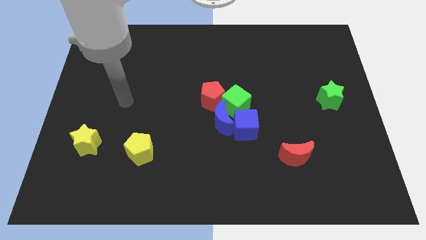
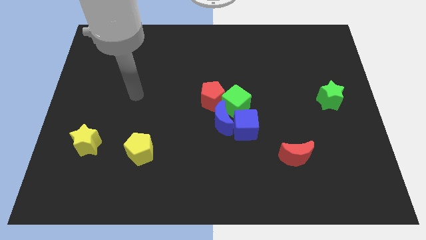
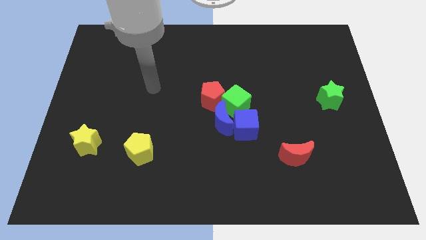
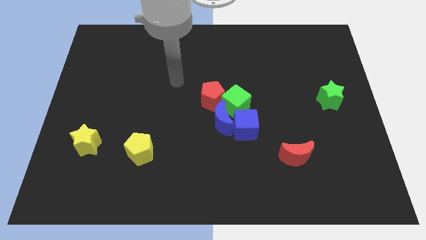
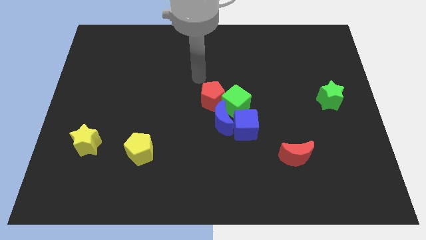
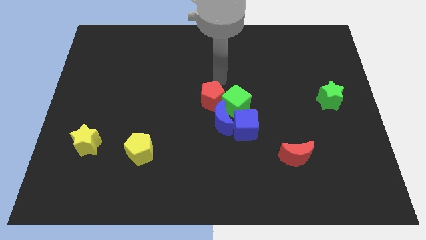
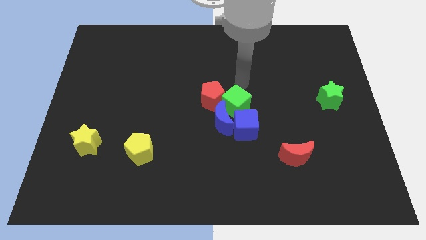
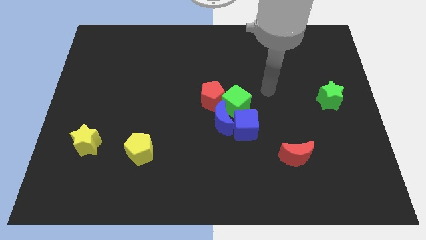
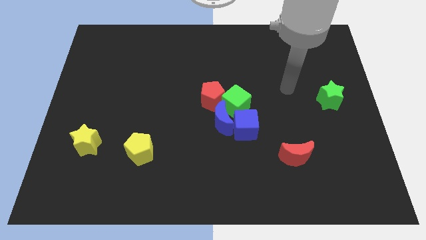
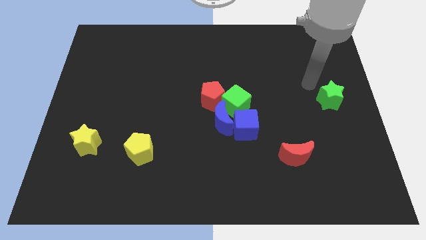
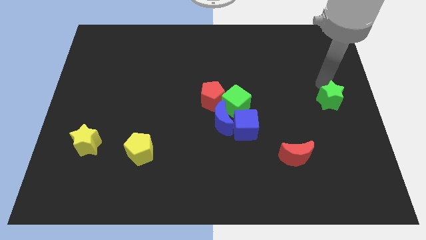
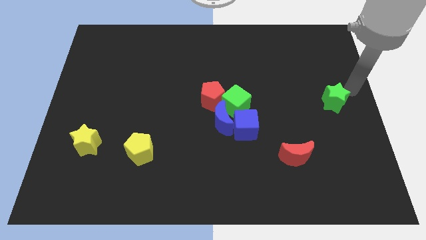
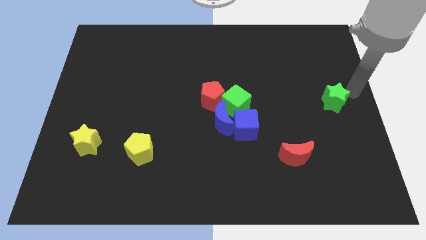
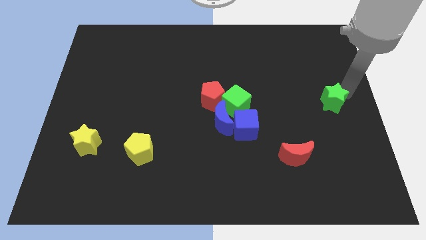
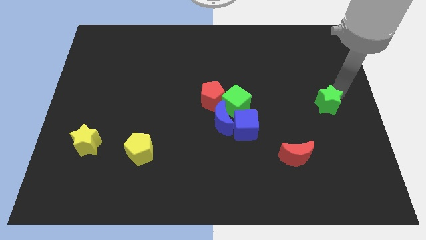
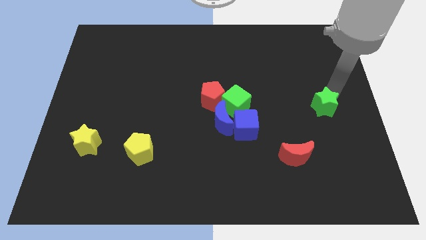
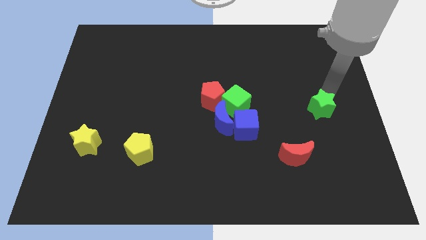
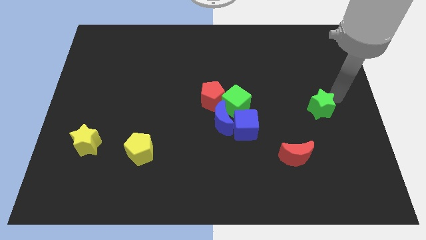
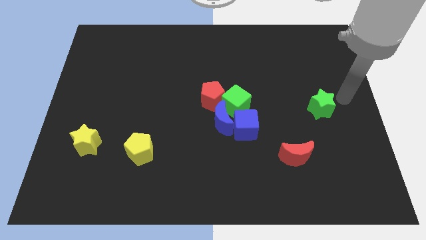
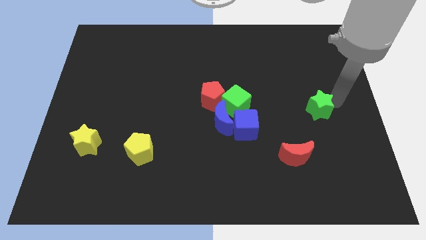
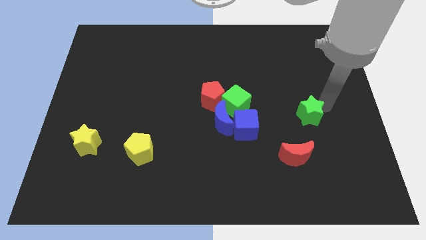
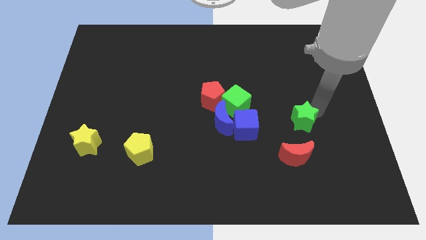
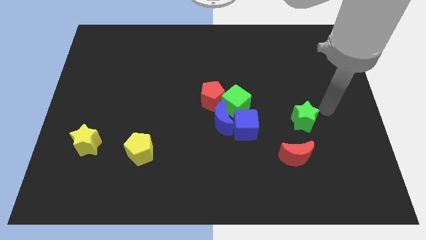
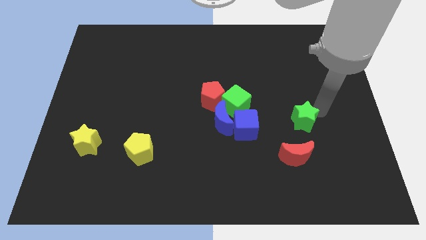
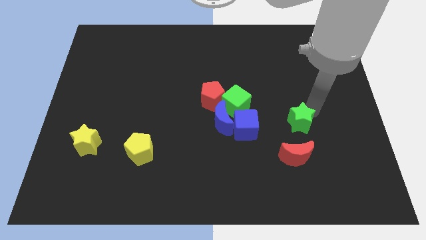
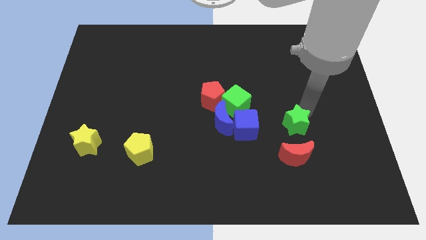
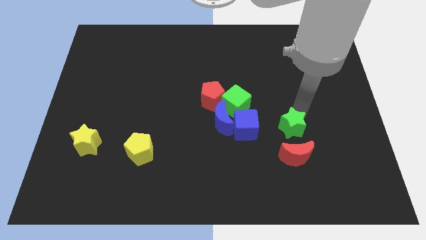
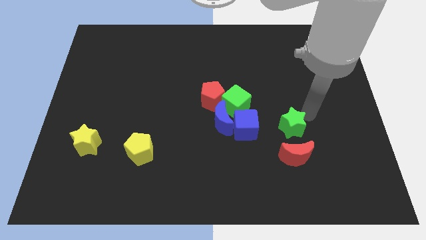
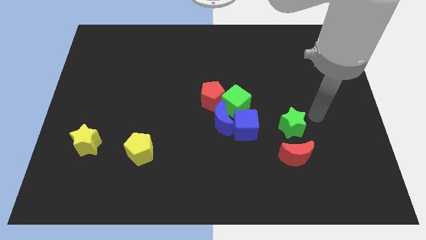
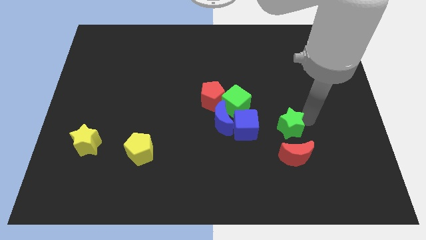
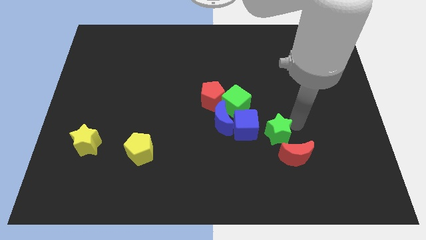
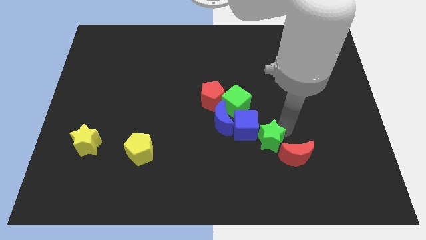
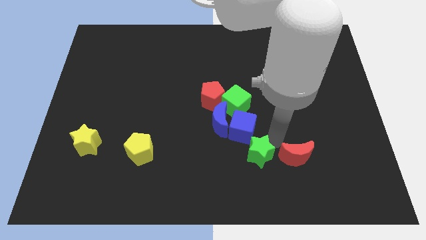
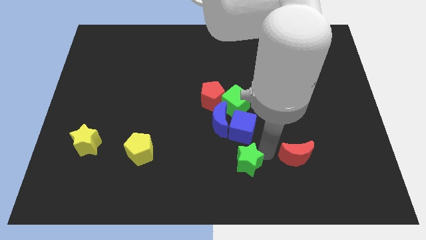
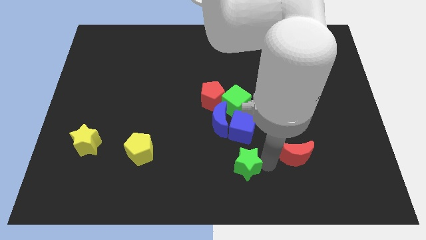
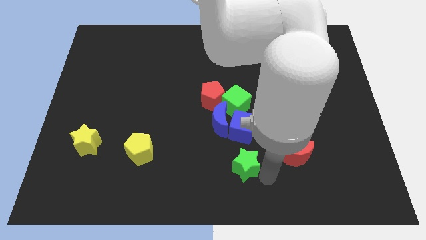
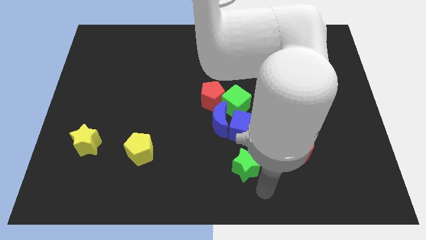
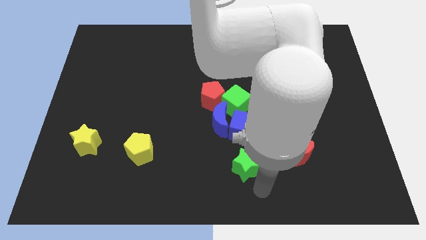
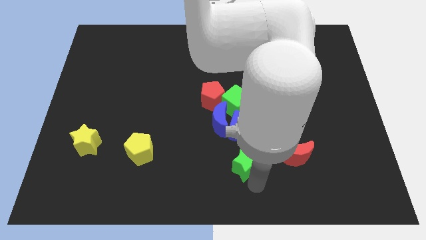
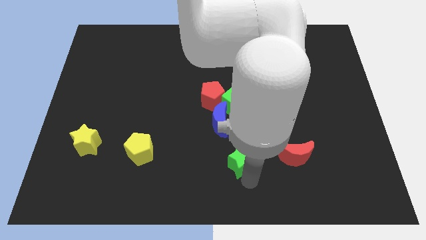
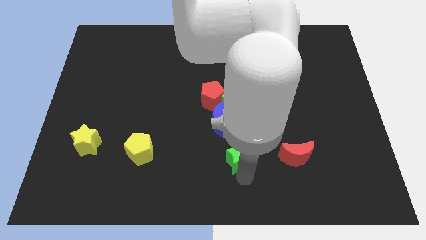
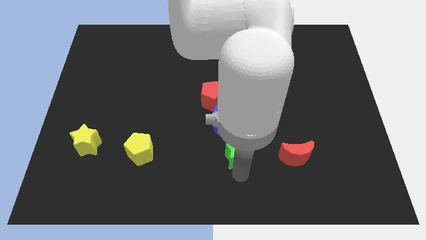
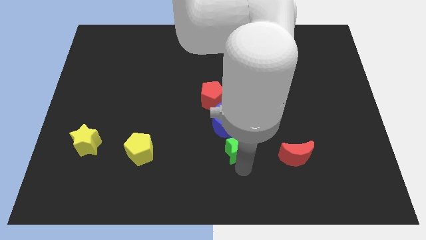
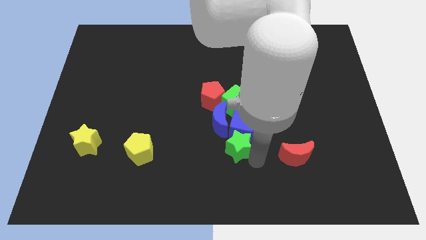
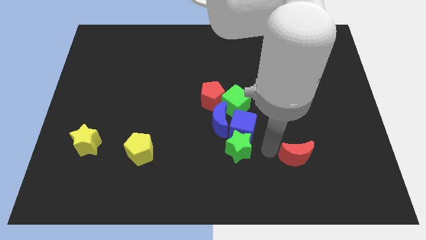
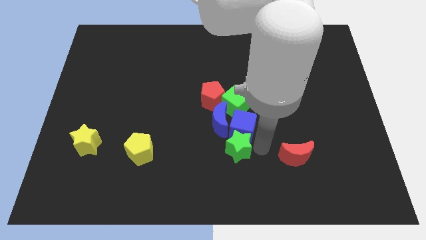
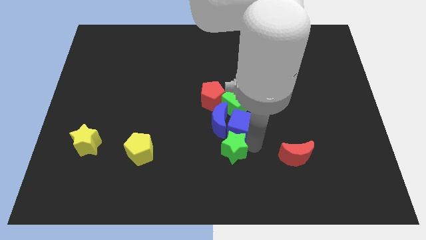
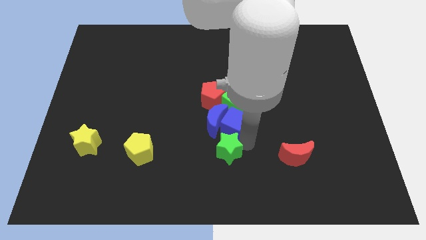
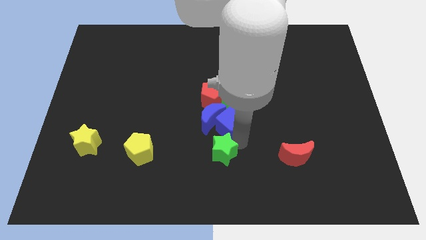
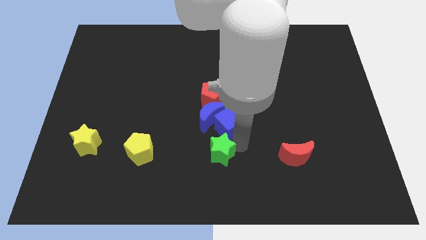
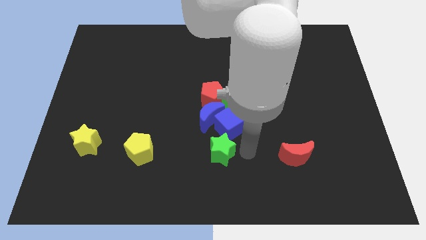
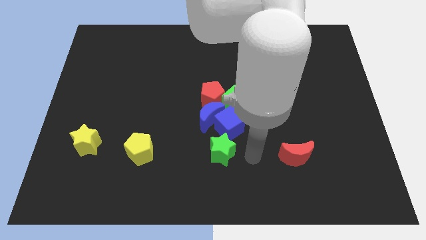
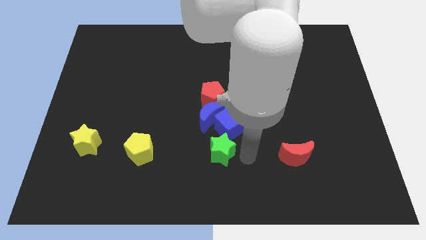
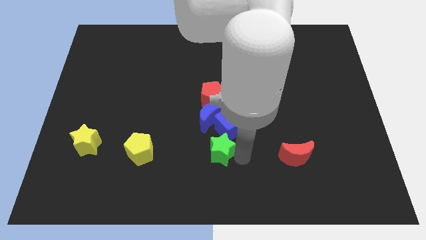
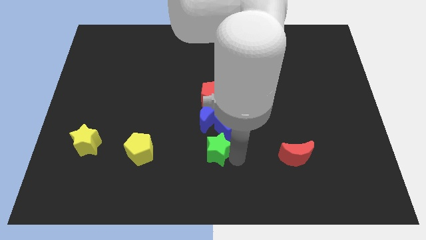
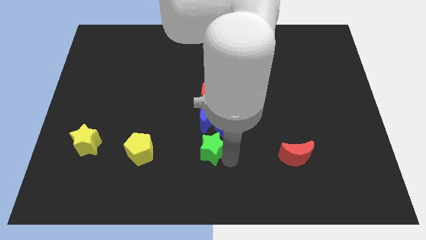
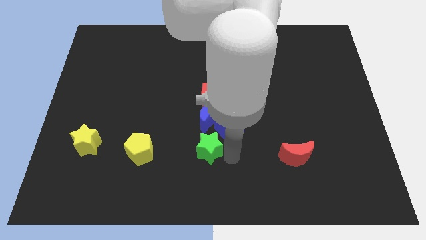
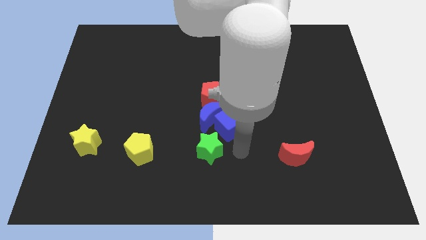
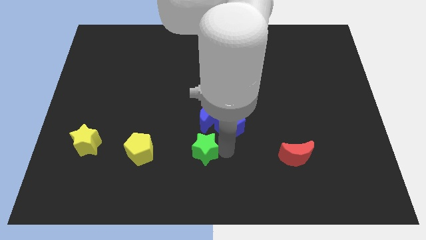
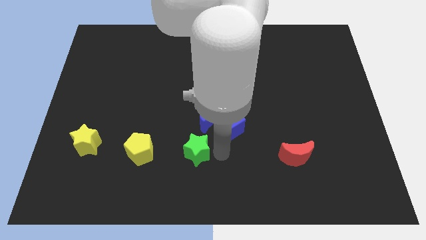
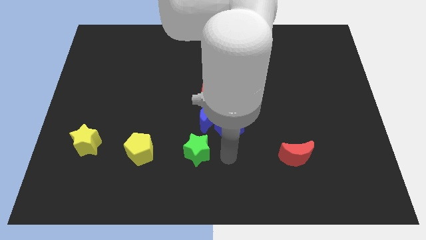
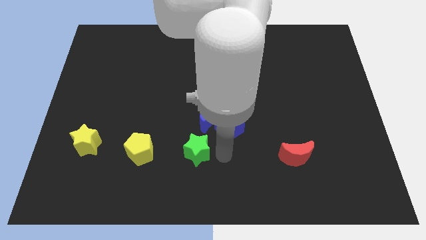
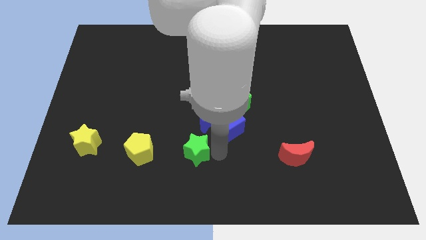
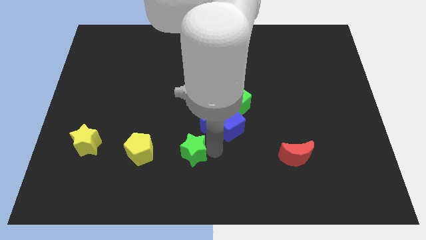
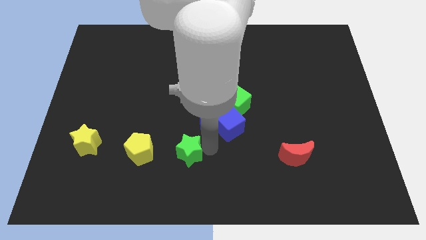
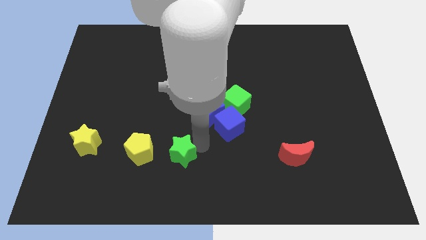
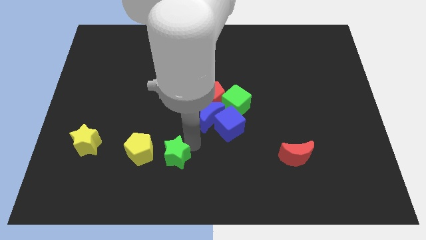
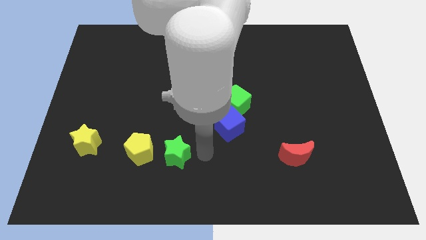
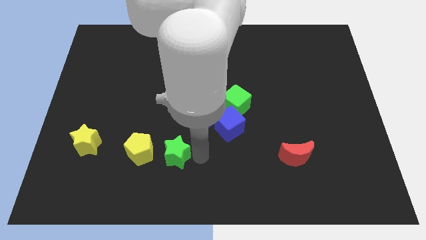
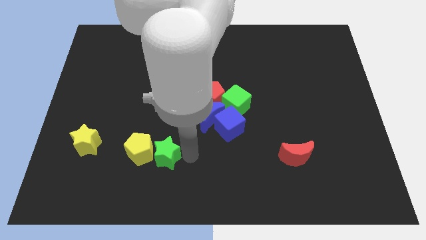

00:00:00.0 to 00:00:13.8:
move the green star close to the yellow pentagon

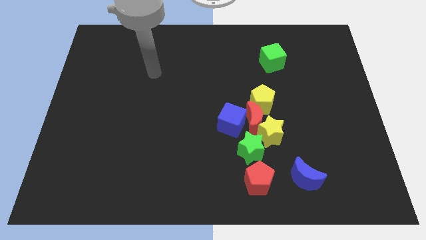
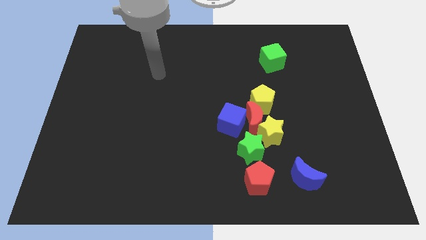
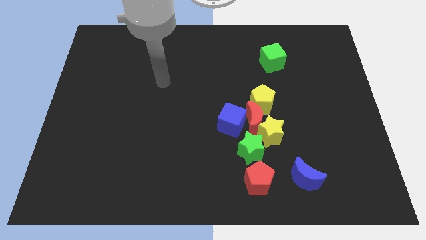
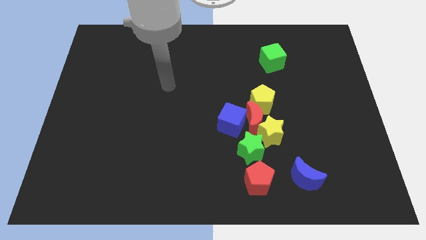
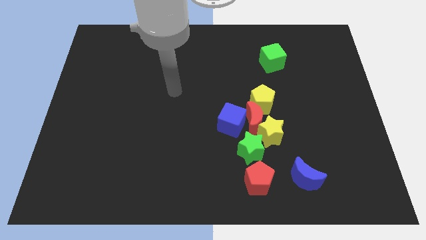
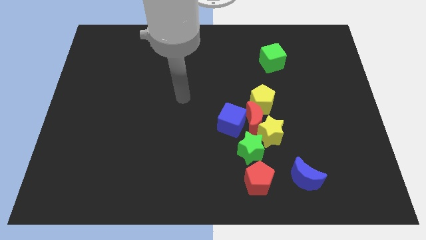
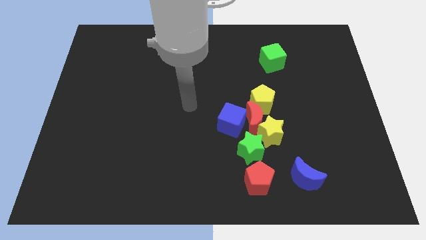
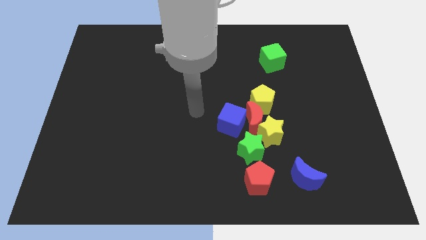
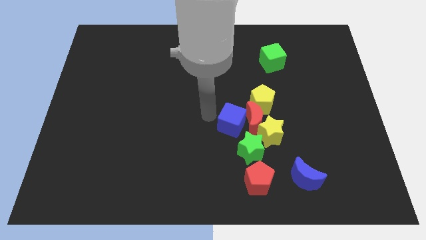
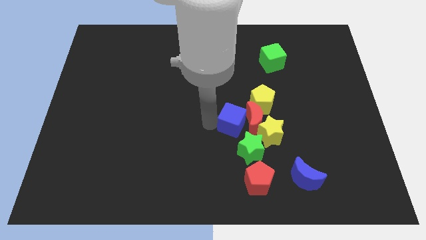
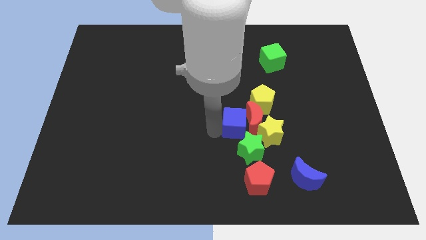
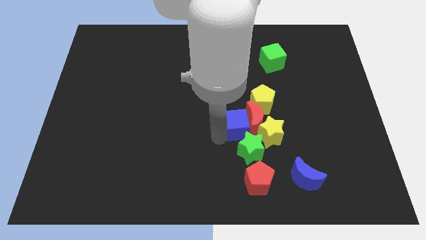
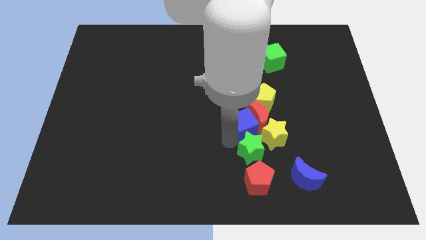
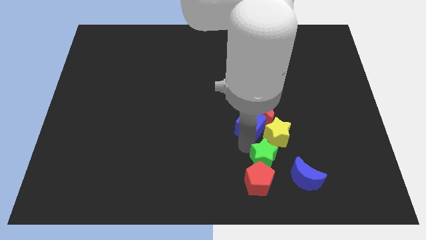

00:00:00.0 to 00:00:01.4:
push the blue cube next to the yellow star
